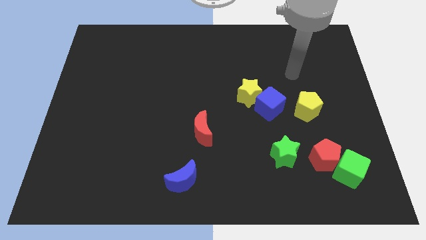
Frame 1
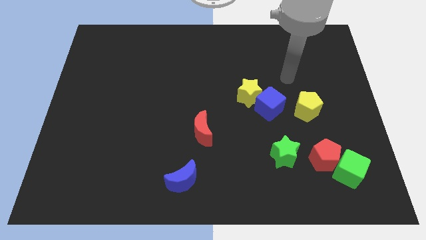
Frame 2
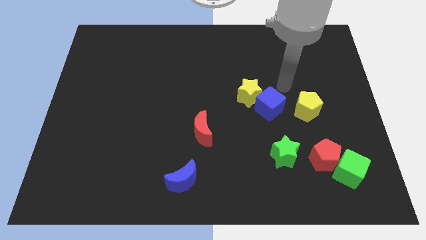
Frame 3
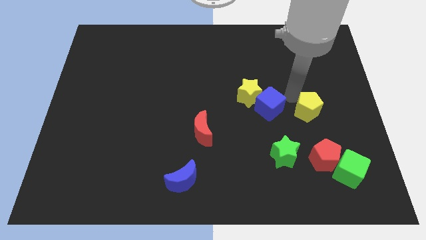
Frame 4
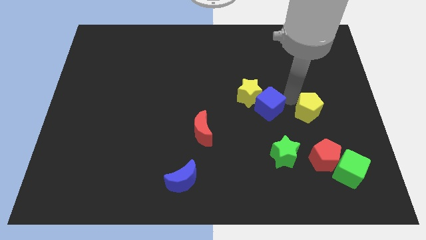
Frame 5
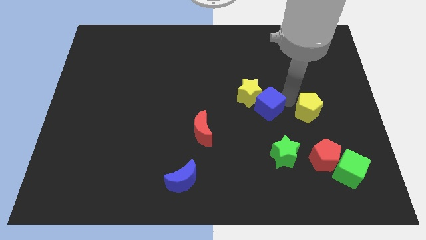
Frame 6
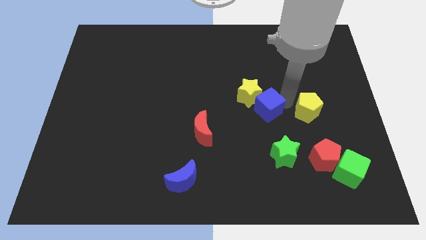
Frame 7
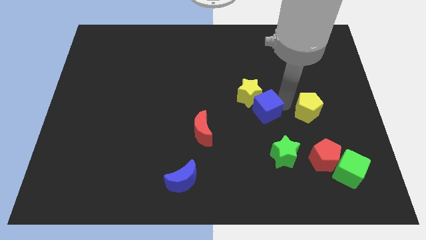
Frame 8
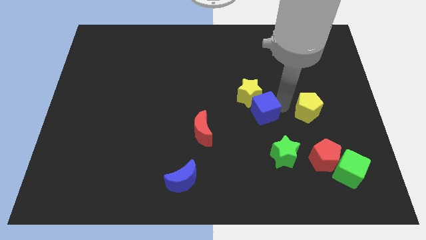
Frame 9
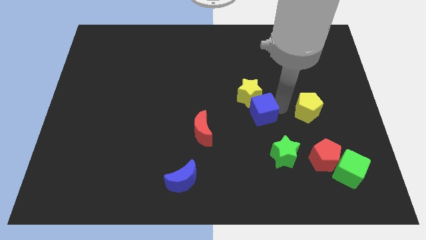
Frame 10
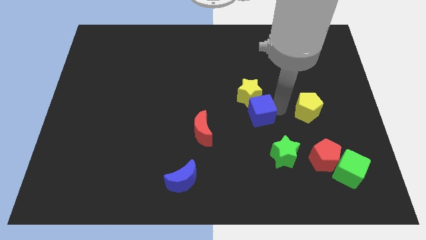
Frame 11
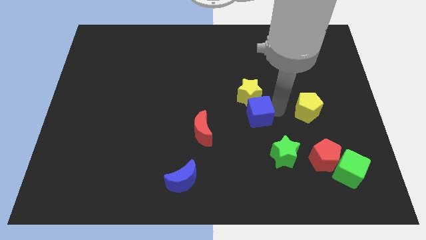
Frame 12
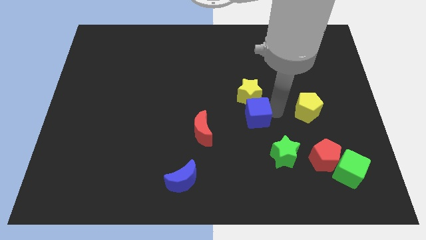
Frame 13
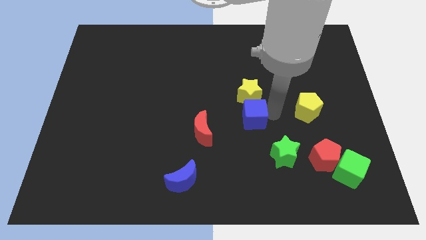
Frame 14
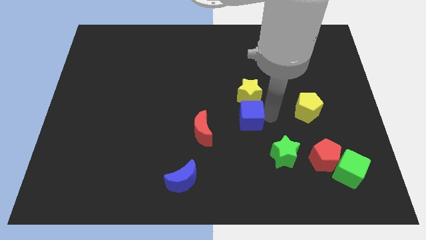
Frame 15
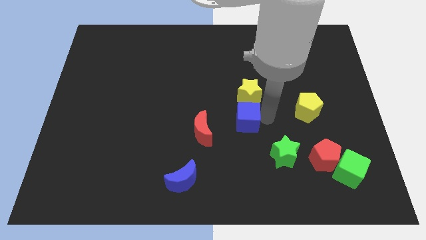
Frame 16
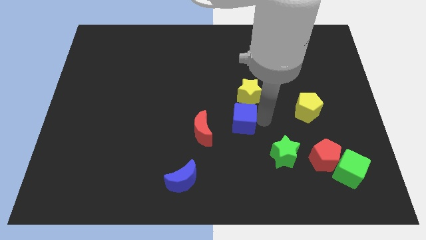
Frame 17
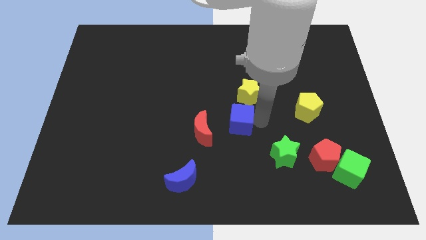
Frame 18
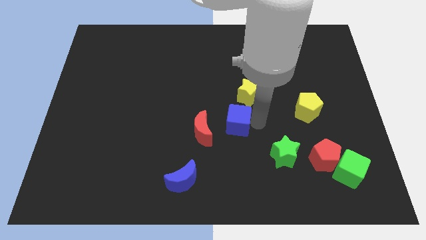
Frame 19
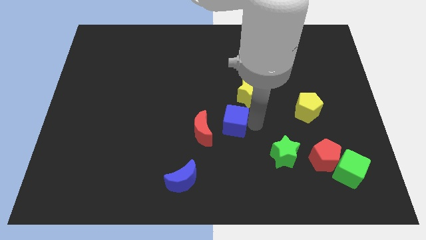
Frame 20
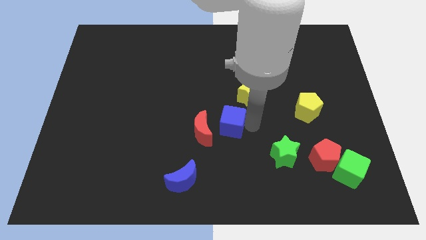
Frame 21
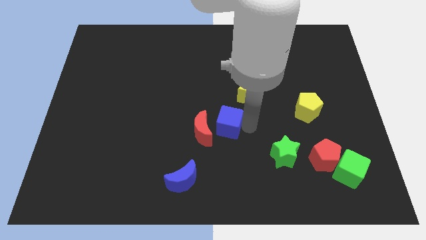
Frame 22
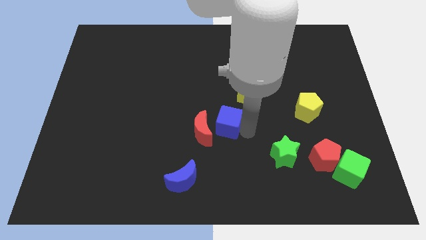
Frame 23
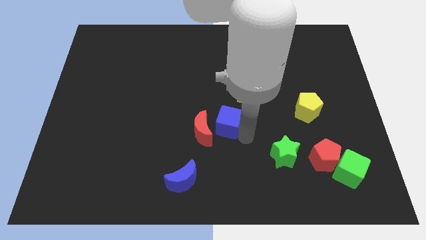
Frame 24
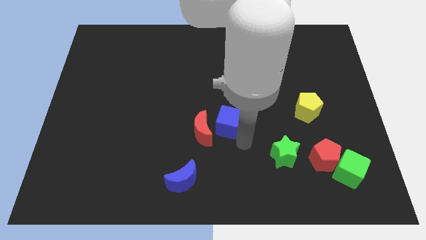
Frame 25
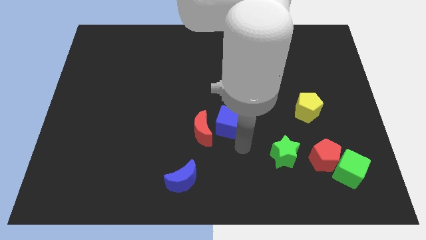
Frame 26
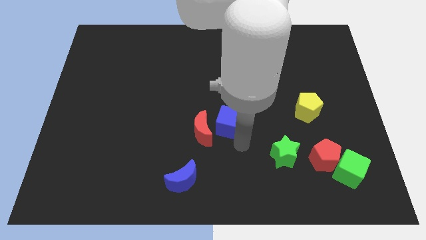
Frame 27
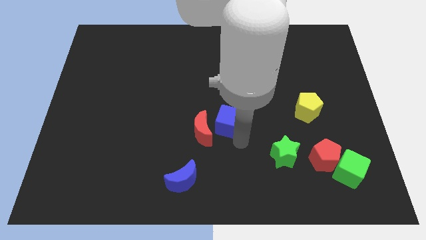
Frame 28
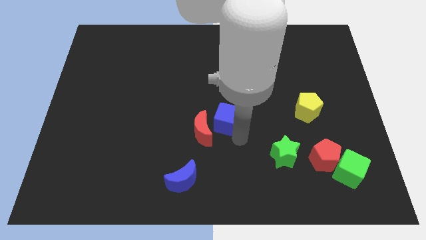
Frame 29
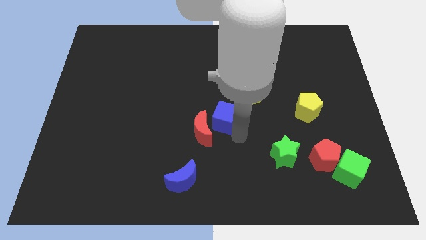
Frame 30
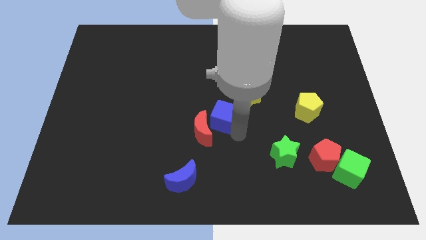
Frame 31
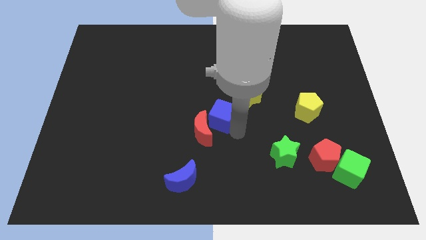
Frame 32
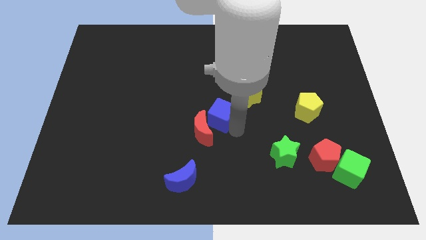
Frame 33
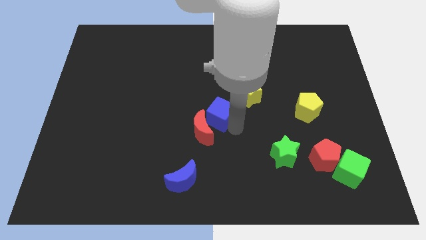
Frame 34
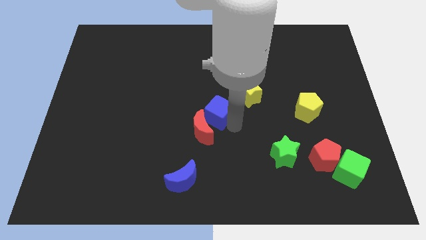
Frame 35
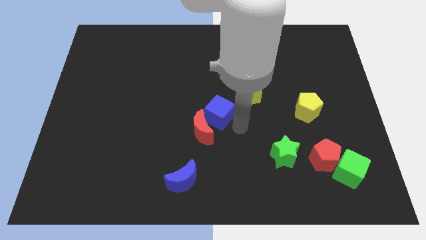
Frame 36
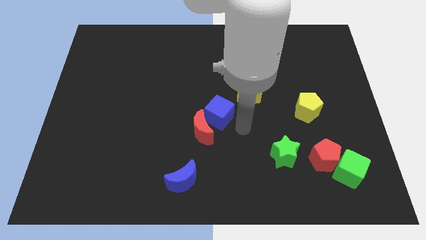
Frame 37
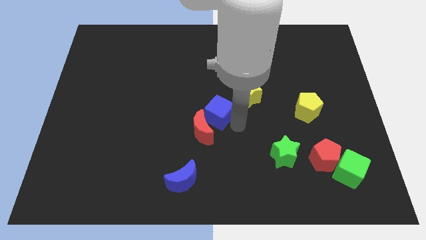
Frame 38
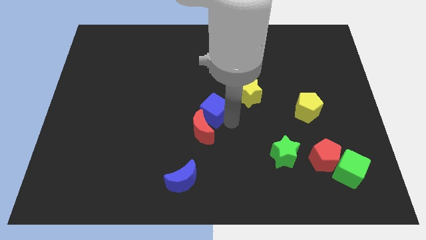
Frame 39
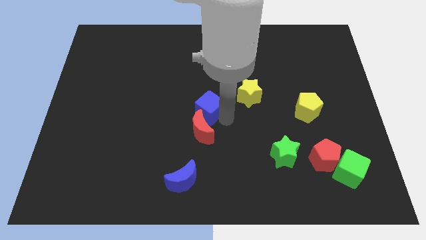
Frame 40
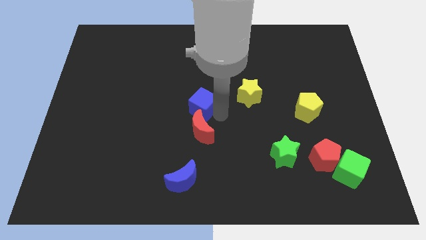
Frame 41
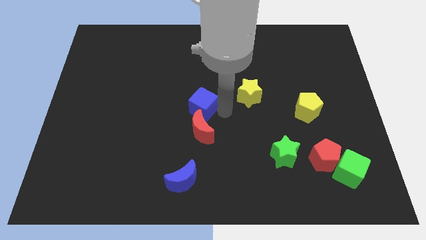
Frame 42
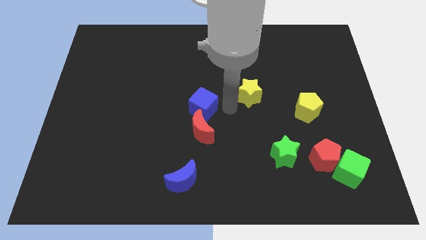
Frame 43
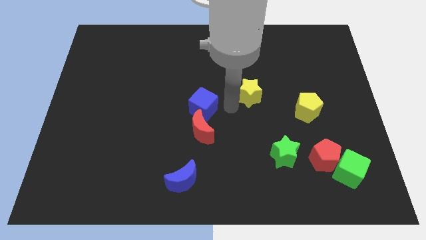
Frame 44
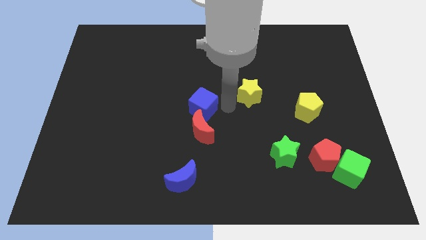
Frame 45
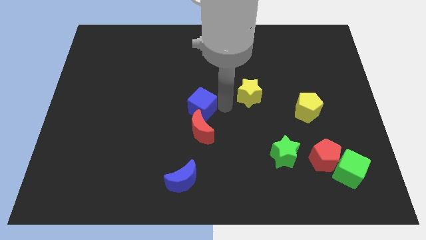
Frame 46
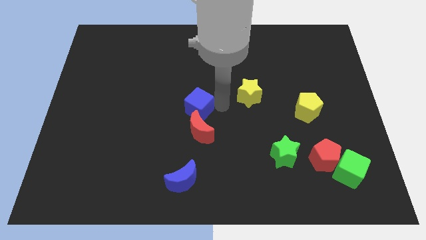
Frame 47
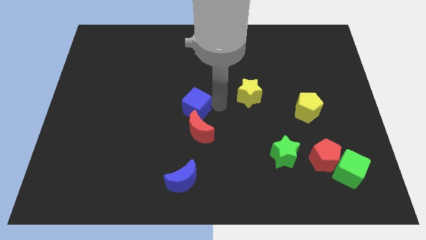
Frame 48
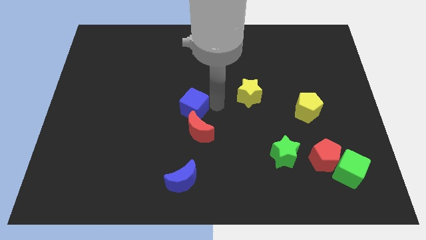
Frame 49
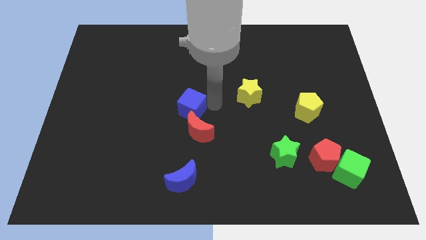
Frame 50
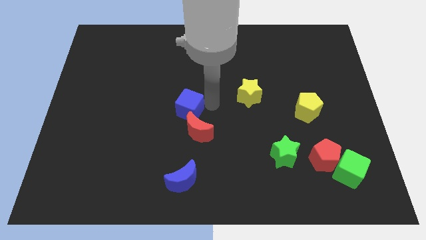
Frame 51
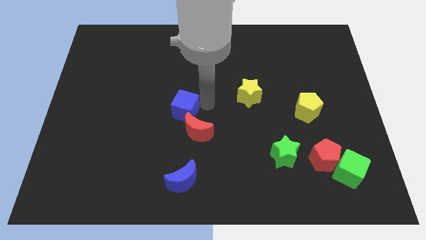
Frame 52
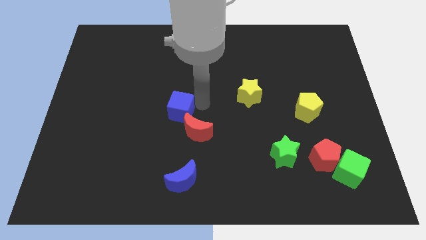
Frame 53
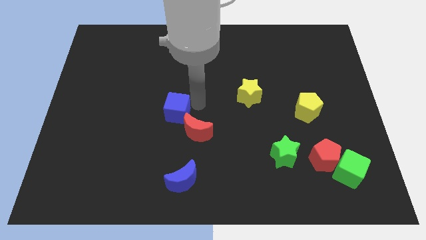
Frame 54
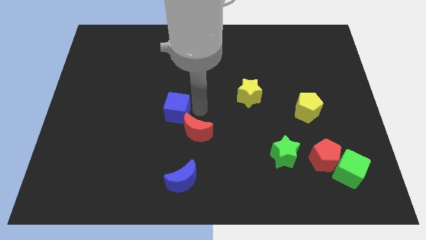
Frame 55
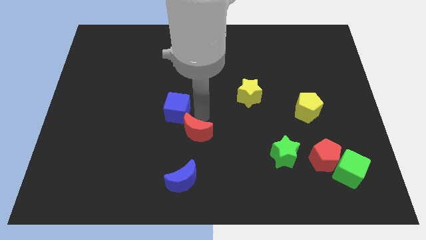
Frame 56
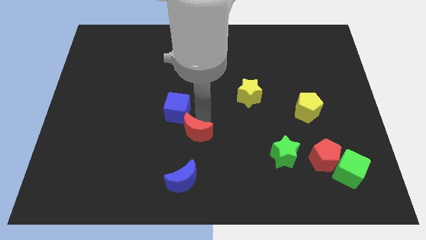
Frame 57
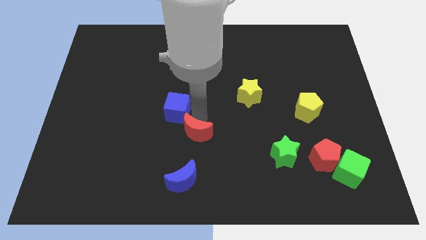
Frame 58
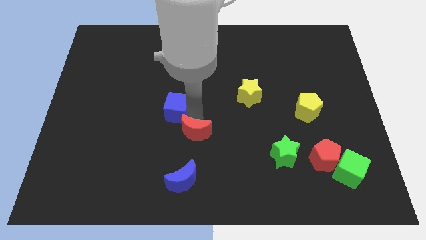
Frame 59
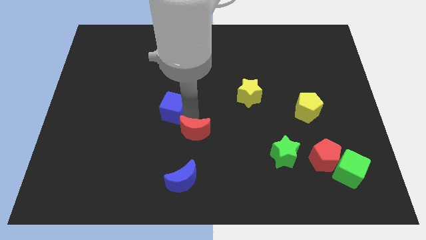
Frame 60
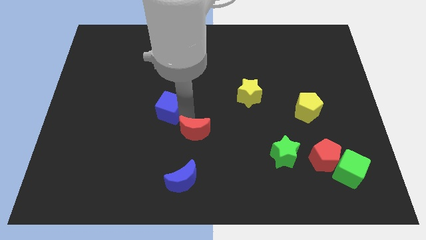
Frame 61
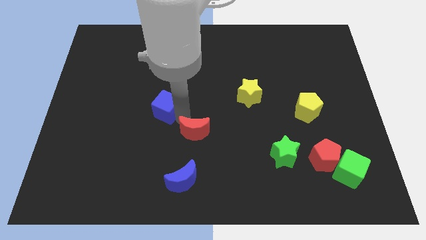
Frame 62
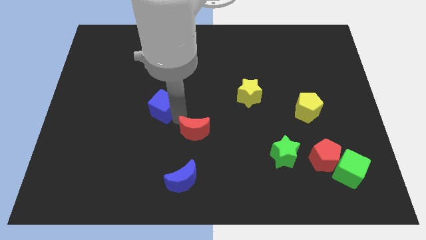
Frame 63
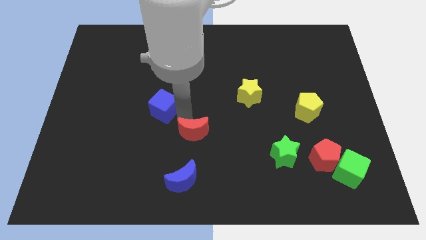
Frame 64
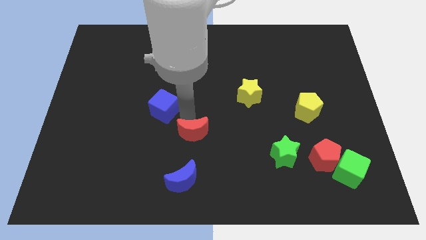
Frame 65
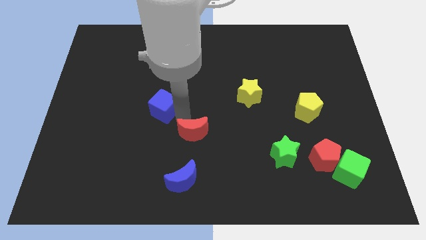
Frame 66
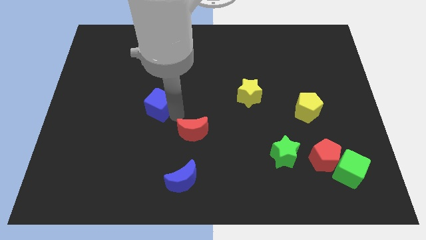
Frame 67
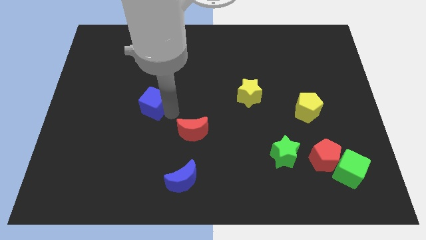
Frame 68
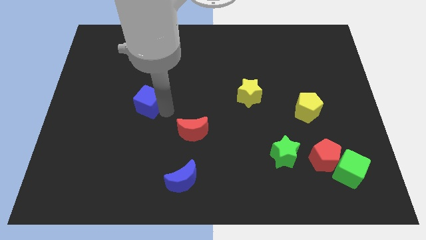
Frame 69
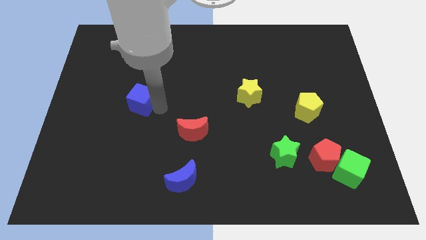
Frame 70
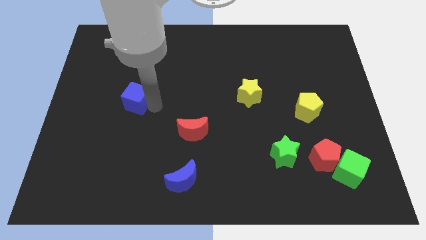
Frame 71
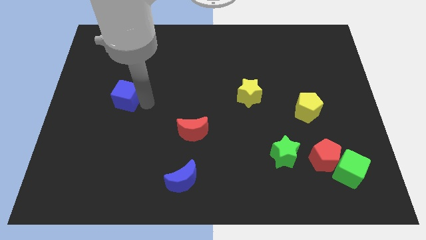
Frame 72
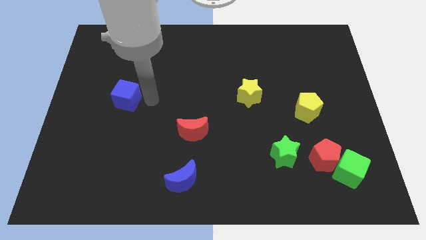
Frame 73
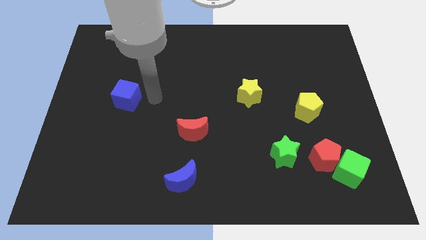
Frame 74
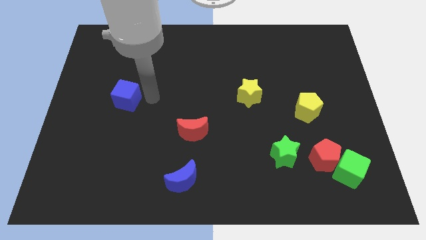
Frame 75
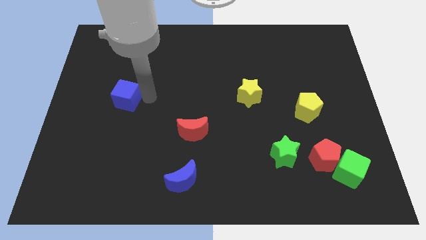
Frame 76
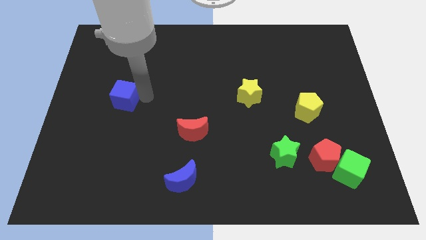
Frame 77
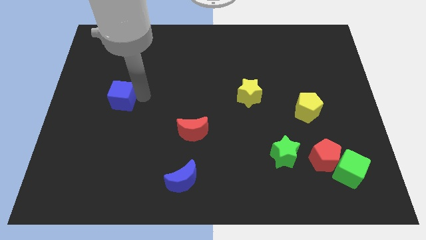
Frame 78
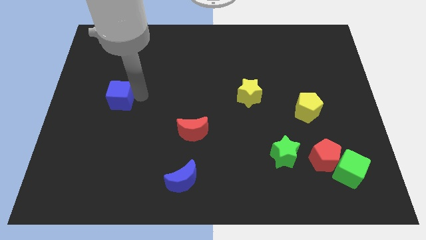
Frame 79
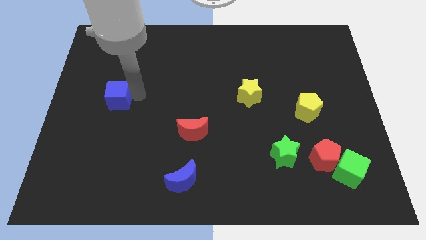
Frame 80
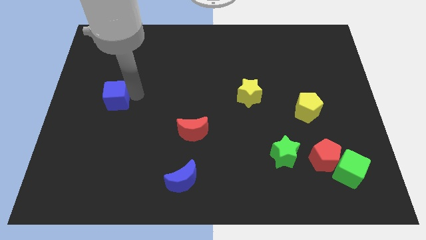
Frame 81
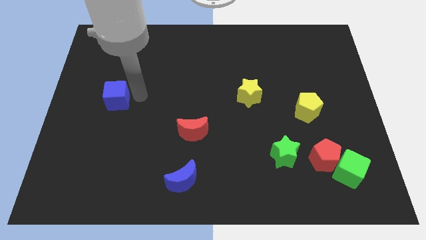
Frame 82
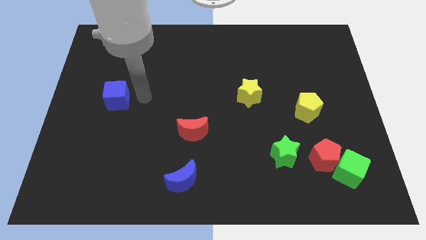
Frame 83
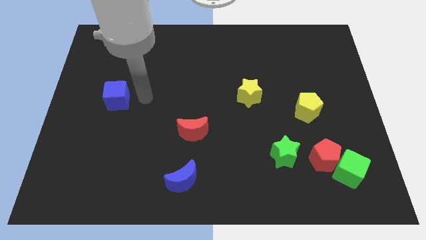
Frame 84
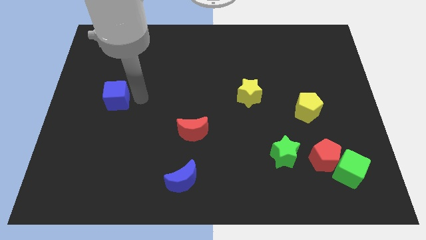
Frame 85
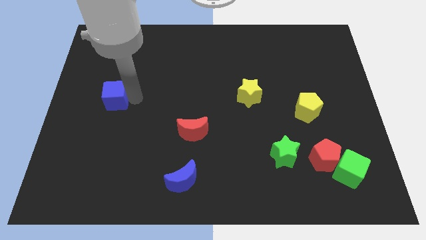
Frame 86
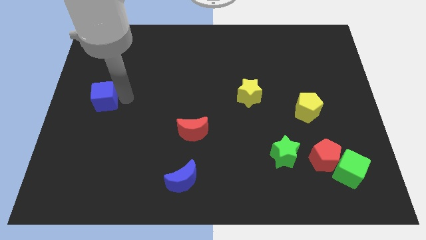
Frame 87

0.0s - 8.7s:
push the blue cube to the left side

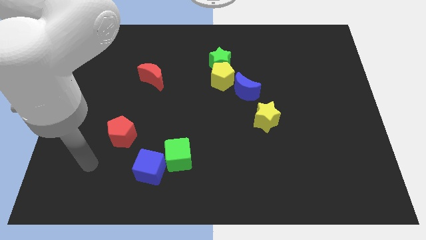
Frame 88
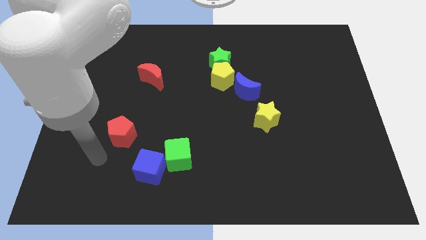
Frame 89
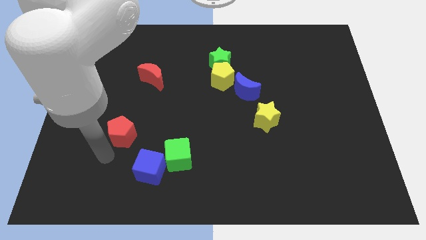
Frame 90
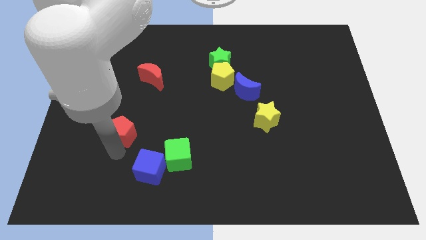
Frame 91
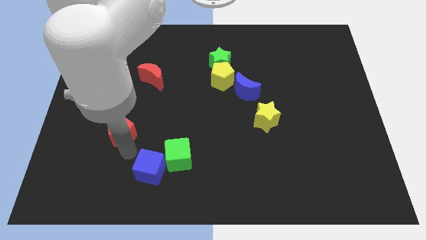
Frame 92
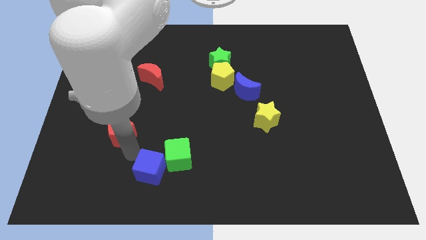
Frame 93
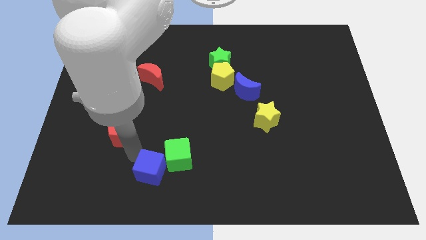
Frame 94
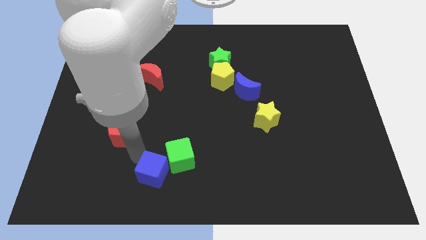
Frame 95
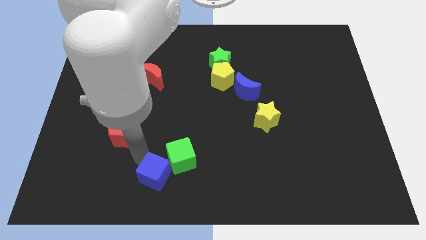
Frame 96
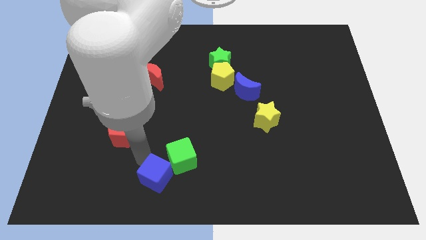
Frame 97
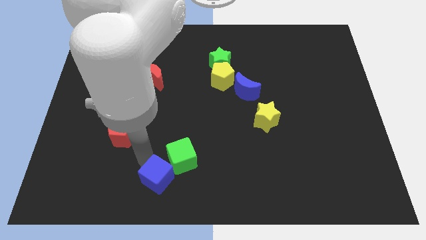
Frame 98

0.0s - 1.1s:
push the blue cube to the bottom
